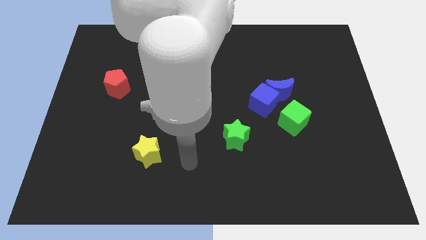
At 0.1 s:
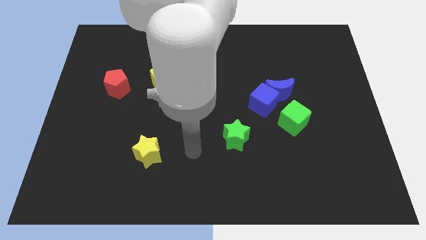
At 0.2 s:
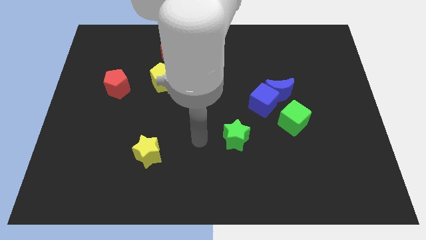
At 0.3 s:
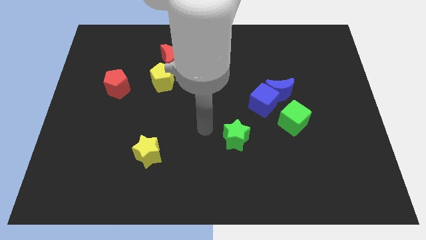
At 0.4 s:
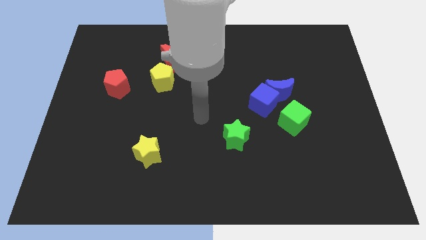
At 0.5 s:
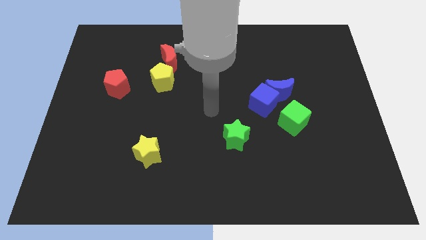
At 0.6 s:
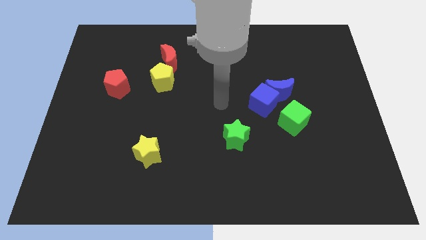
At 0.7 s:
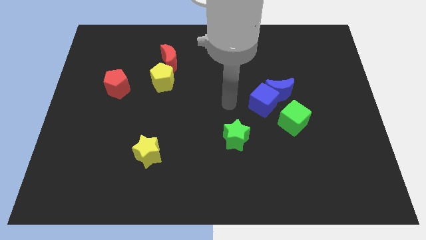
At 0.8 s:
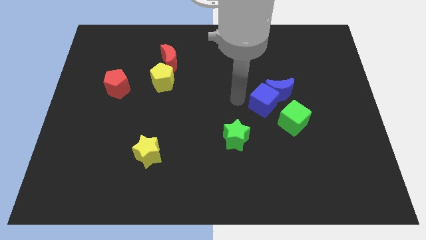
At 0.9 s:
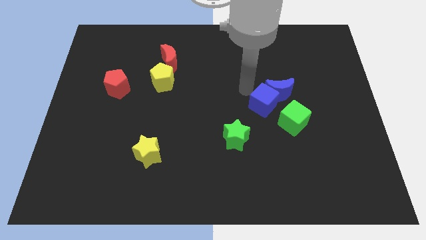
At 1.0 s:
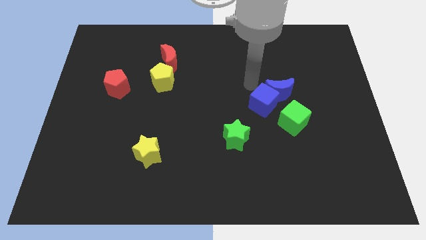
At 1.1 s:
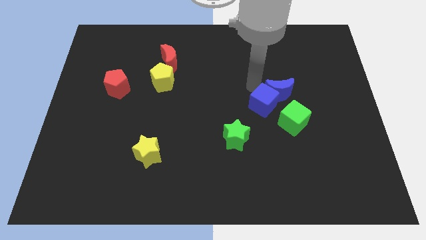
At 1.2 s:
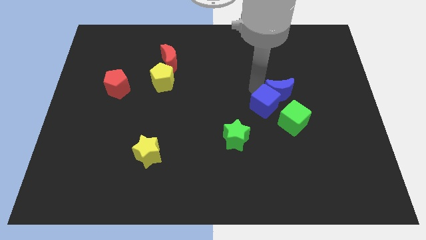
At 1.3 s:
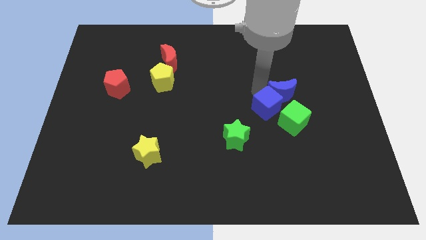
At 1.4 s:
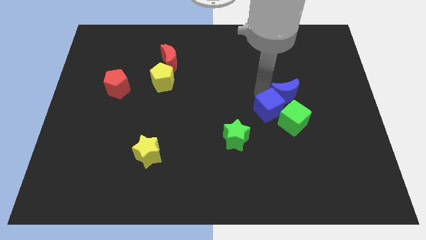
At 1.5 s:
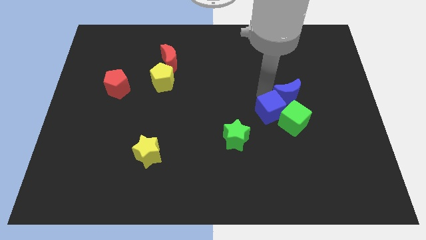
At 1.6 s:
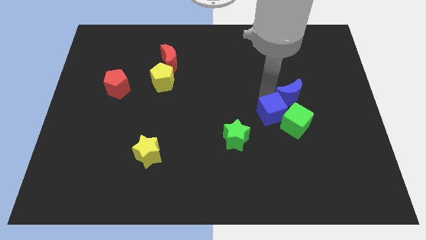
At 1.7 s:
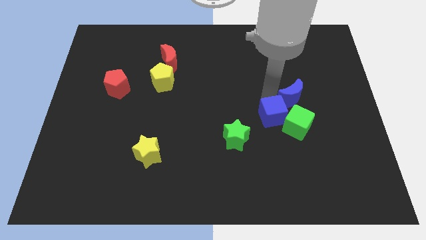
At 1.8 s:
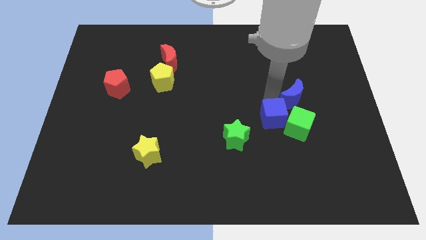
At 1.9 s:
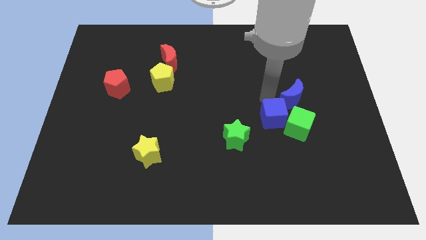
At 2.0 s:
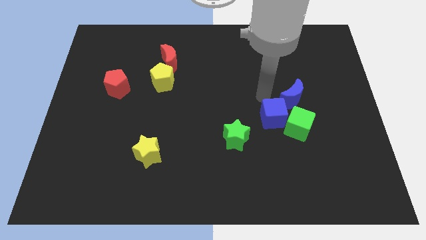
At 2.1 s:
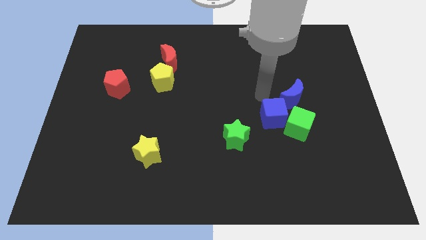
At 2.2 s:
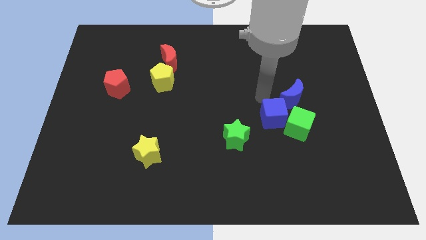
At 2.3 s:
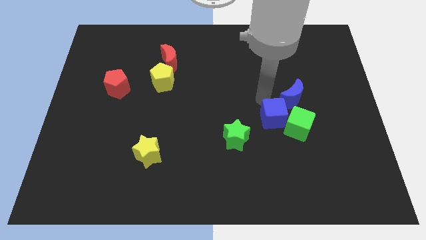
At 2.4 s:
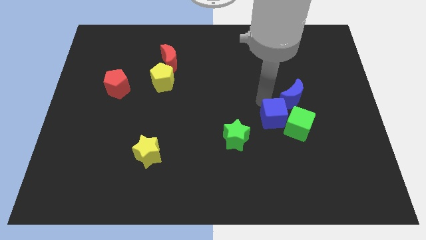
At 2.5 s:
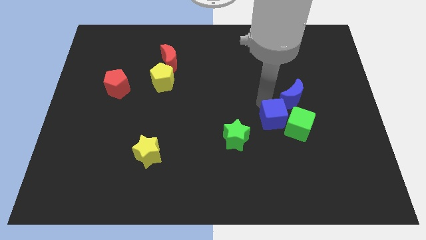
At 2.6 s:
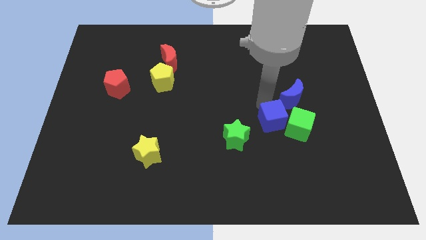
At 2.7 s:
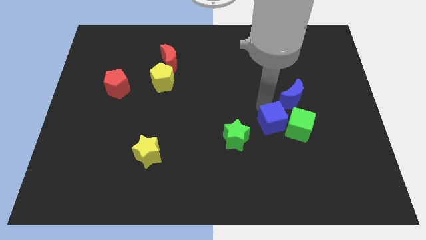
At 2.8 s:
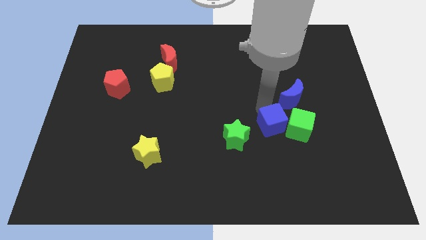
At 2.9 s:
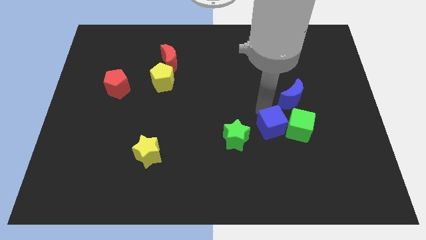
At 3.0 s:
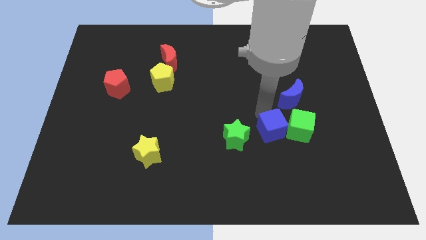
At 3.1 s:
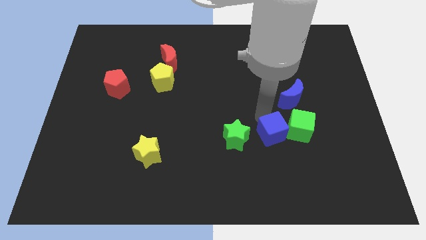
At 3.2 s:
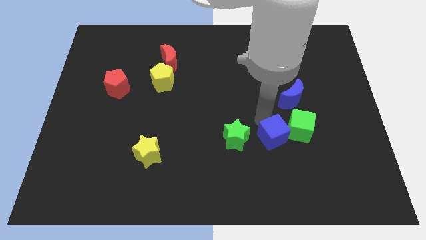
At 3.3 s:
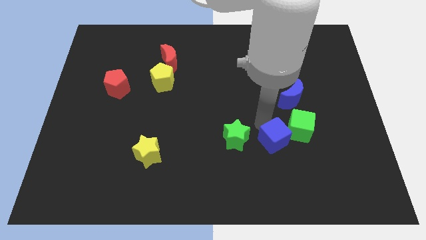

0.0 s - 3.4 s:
move the blue cube diagonally down and right a bit

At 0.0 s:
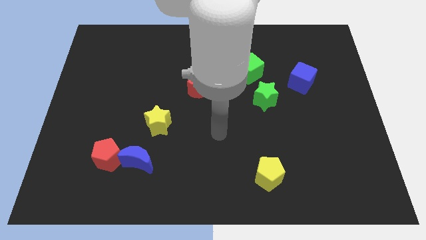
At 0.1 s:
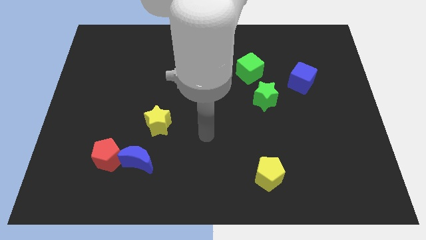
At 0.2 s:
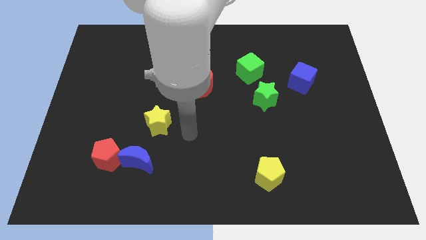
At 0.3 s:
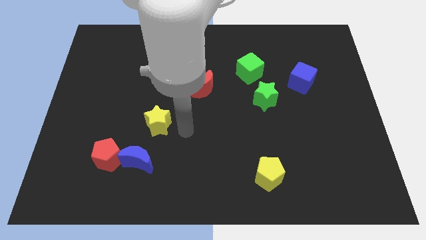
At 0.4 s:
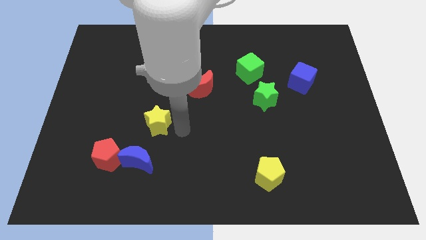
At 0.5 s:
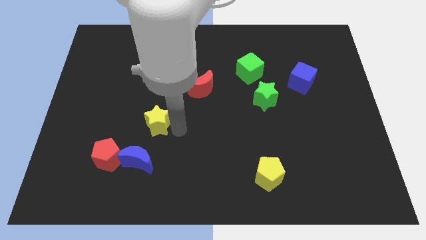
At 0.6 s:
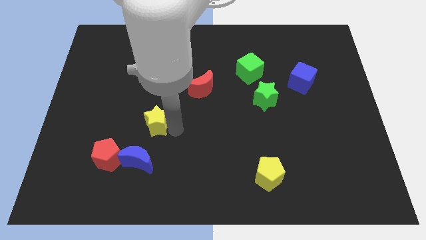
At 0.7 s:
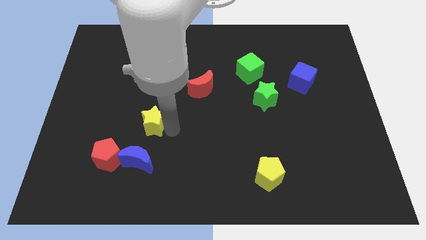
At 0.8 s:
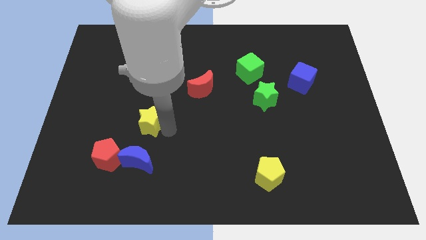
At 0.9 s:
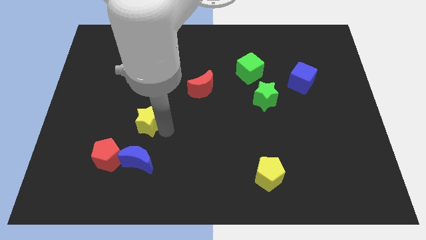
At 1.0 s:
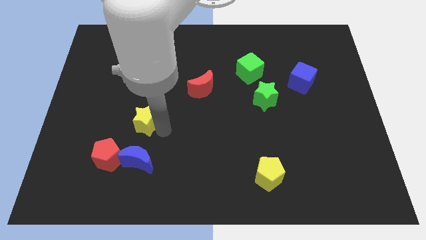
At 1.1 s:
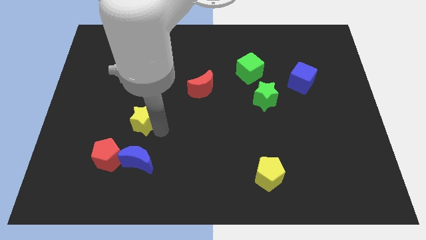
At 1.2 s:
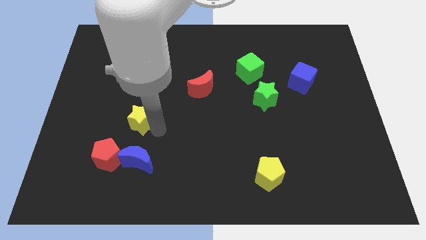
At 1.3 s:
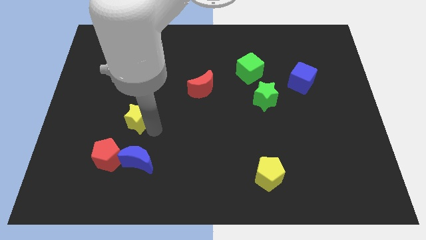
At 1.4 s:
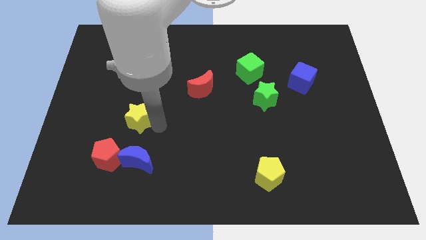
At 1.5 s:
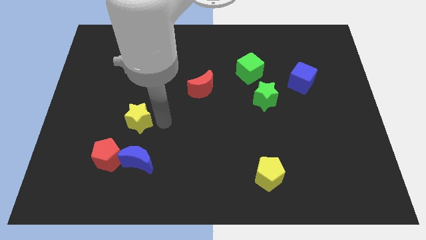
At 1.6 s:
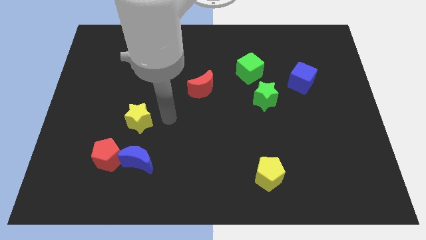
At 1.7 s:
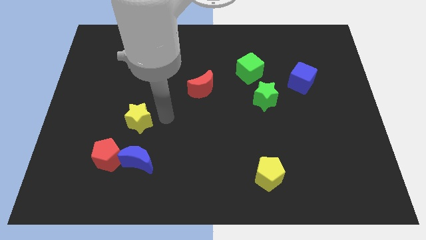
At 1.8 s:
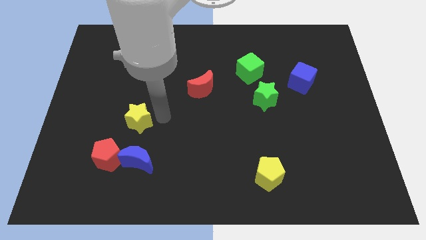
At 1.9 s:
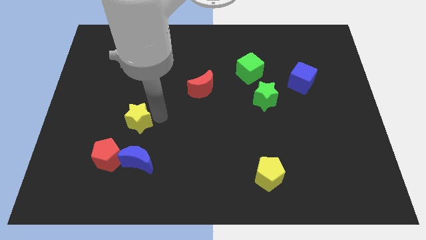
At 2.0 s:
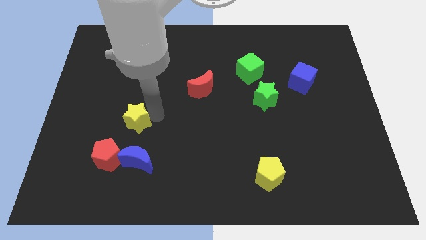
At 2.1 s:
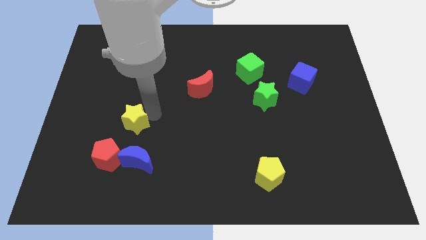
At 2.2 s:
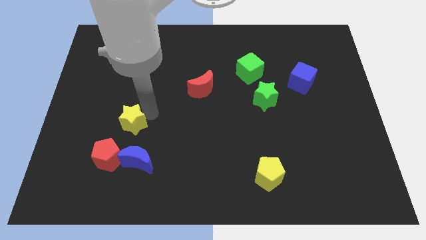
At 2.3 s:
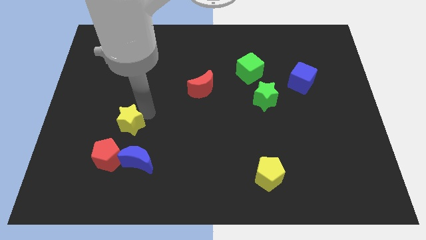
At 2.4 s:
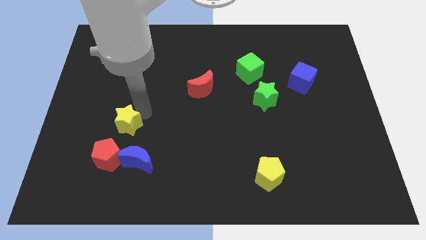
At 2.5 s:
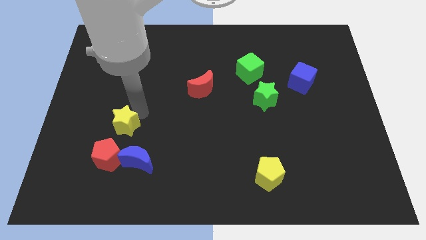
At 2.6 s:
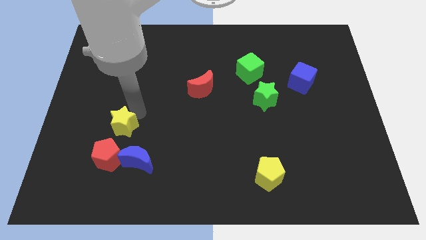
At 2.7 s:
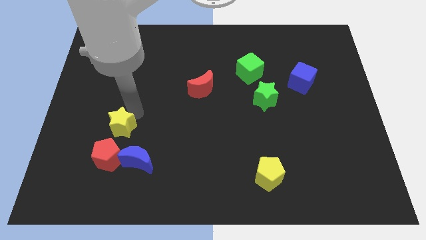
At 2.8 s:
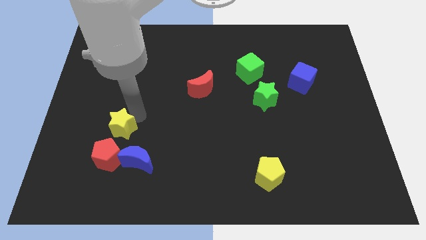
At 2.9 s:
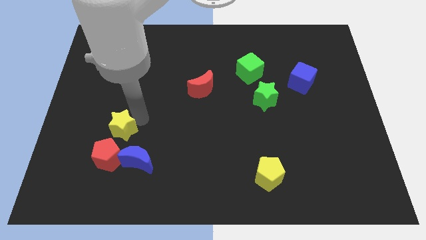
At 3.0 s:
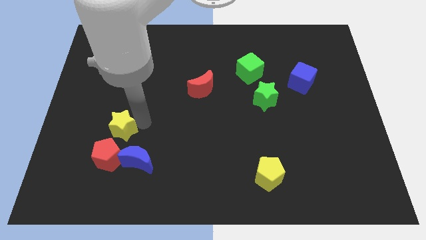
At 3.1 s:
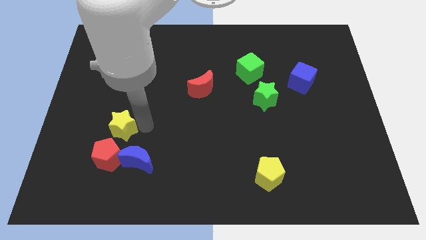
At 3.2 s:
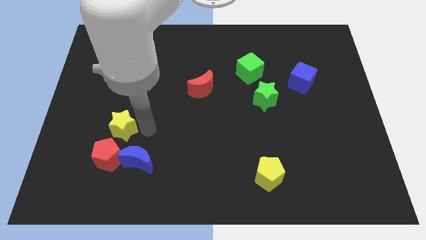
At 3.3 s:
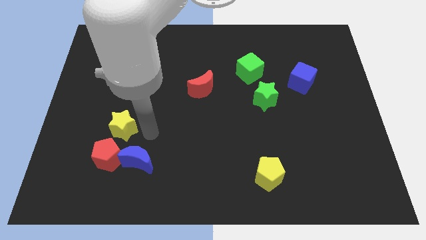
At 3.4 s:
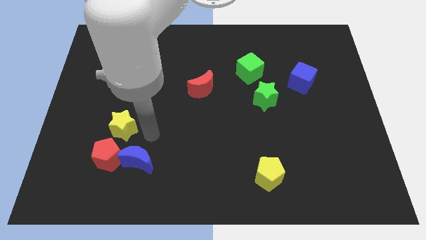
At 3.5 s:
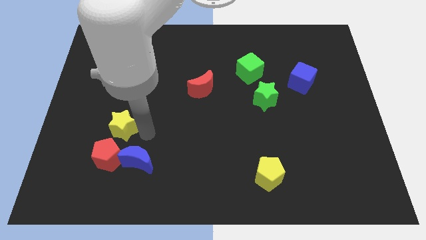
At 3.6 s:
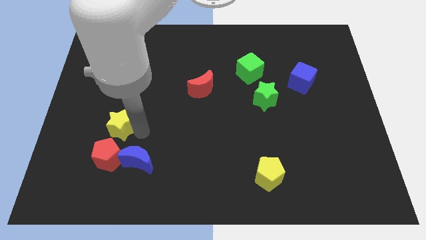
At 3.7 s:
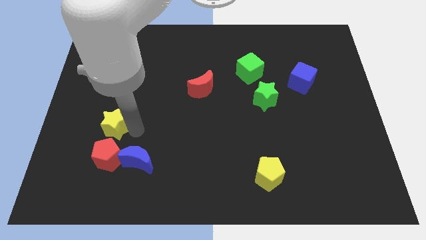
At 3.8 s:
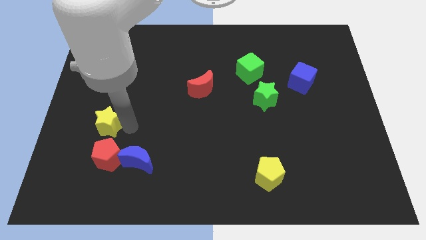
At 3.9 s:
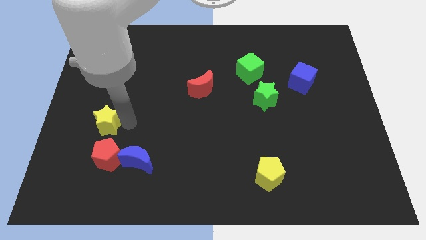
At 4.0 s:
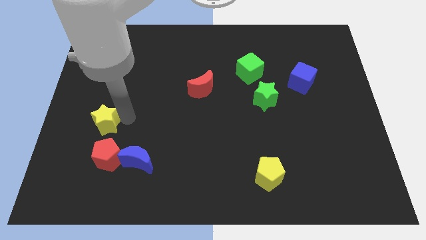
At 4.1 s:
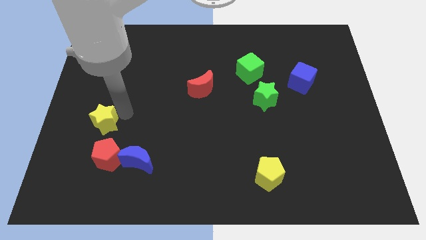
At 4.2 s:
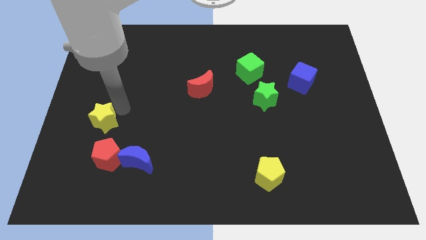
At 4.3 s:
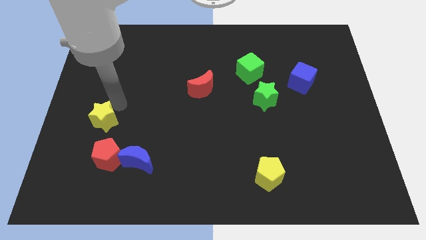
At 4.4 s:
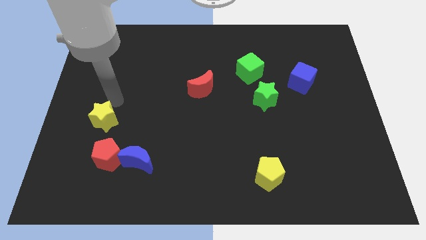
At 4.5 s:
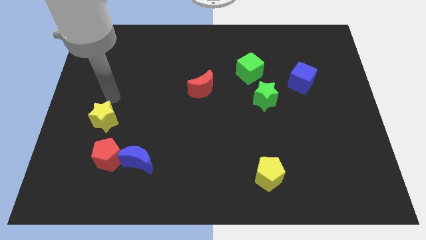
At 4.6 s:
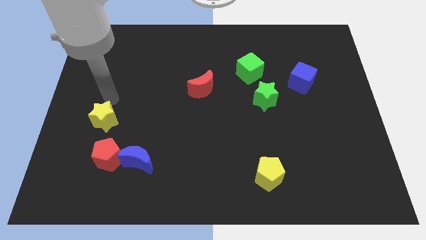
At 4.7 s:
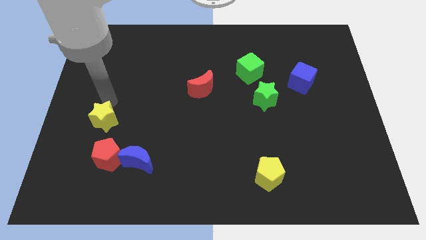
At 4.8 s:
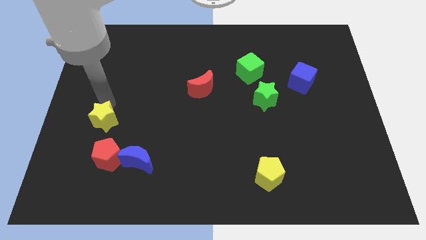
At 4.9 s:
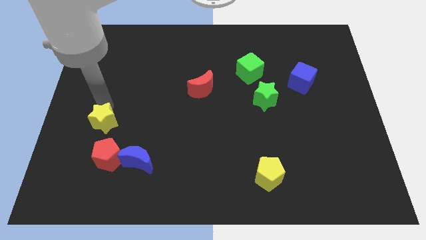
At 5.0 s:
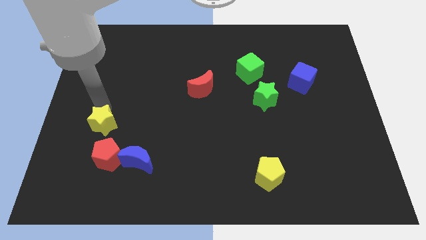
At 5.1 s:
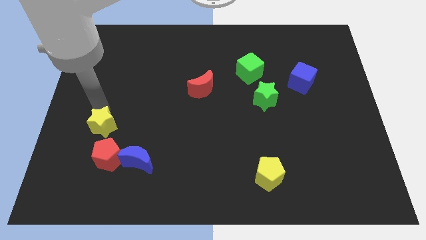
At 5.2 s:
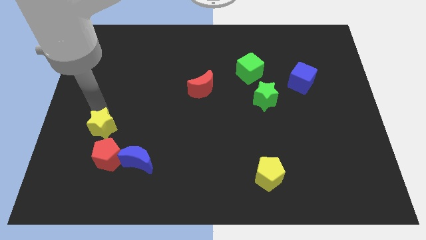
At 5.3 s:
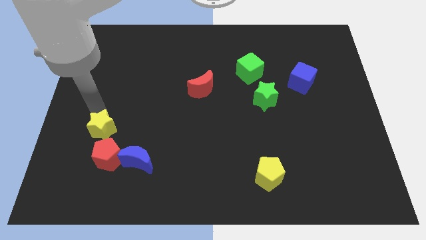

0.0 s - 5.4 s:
slide the yellow star slightly diagonally downwards and to the left
